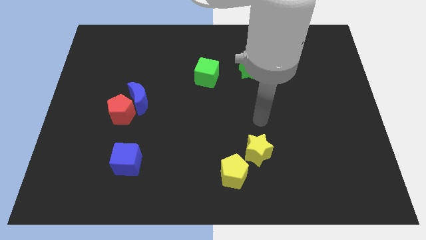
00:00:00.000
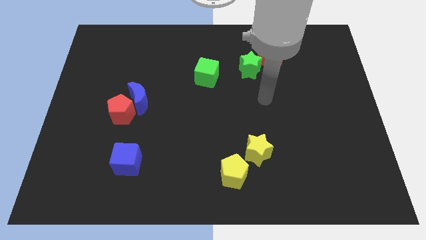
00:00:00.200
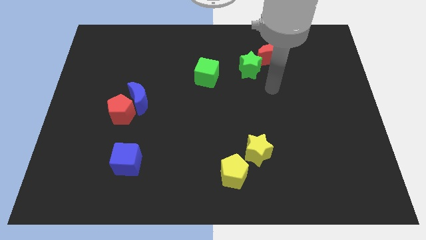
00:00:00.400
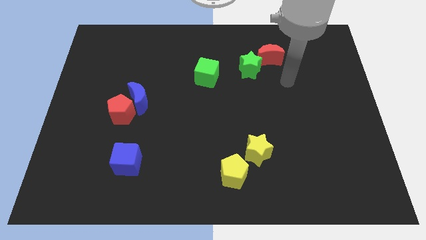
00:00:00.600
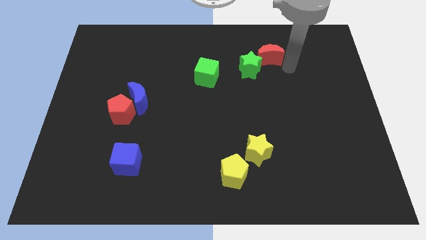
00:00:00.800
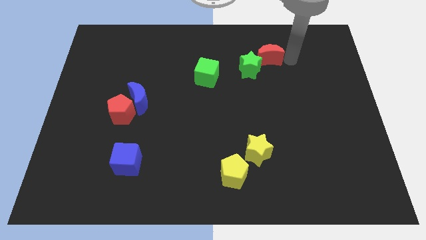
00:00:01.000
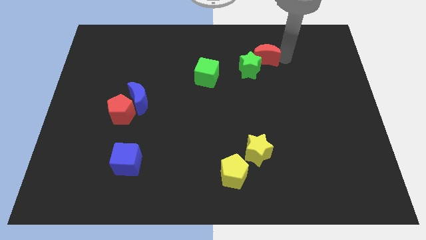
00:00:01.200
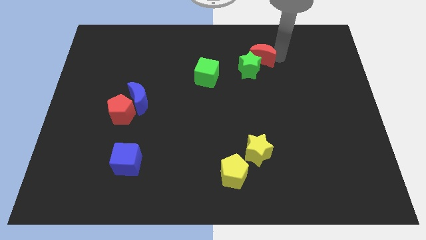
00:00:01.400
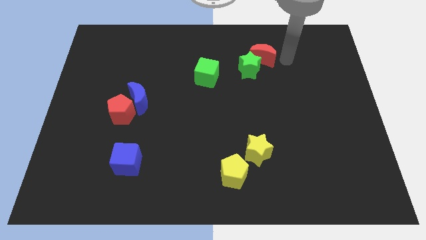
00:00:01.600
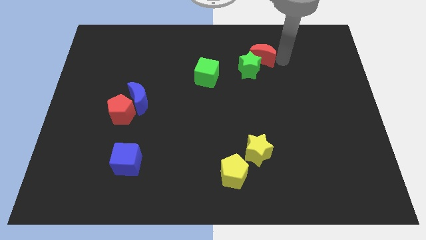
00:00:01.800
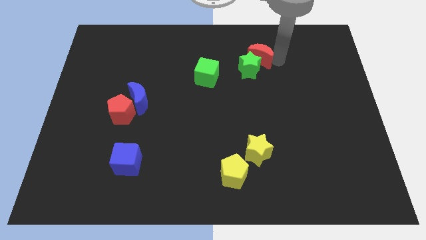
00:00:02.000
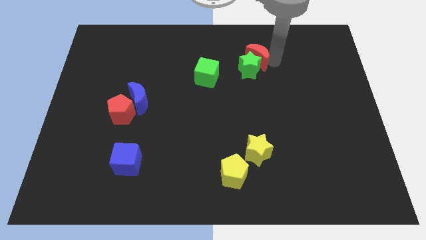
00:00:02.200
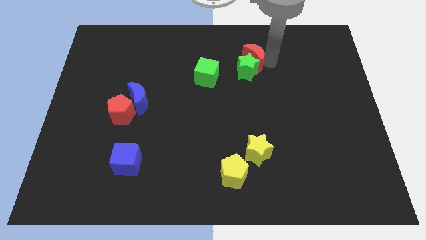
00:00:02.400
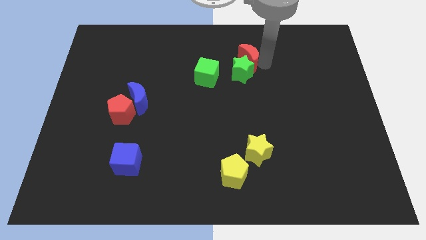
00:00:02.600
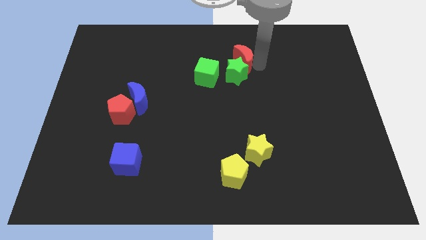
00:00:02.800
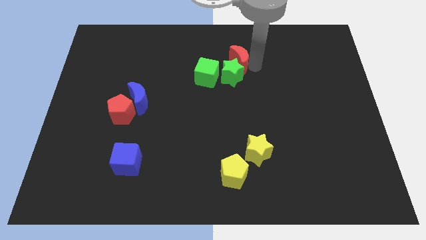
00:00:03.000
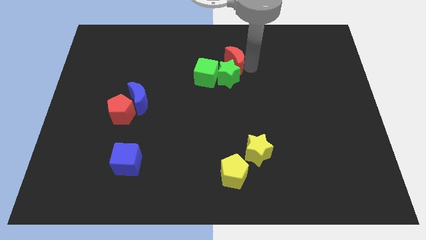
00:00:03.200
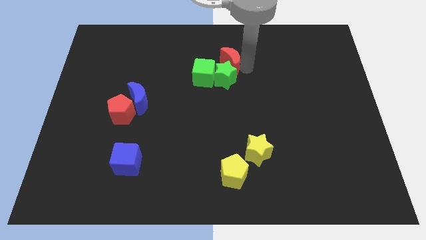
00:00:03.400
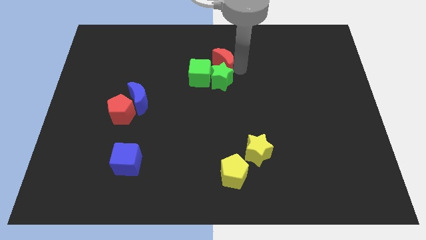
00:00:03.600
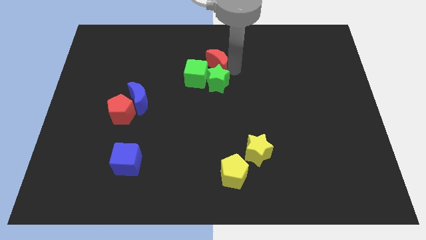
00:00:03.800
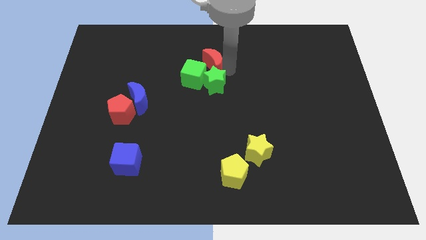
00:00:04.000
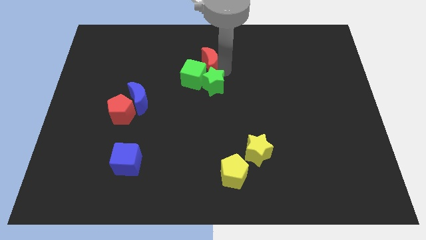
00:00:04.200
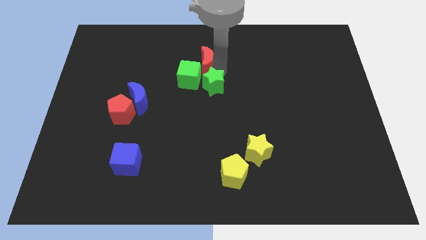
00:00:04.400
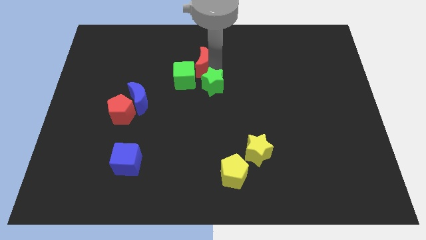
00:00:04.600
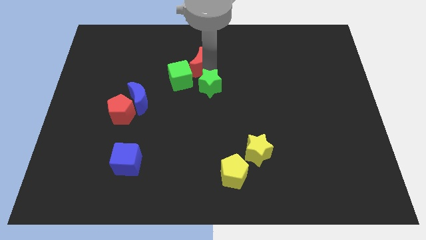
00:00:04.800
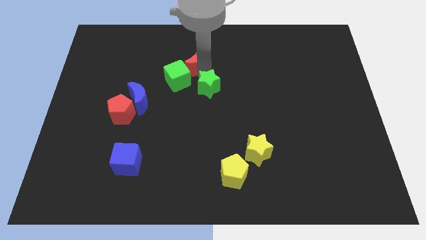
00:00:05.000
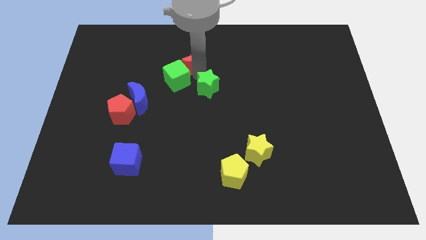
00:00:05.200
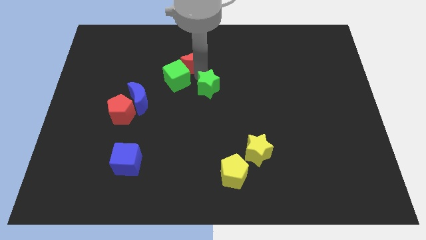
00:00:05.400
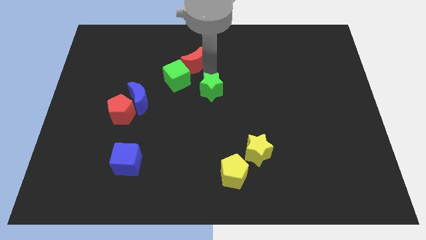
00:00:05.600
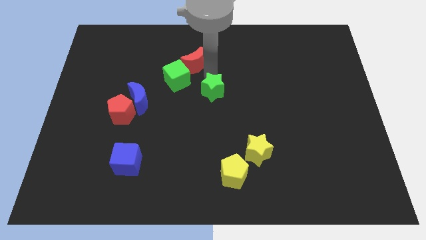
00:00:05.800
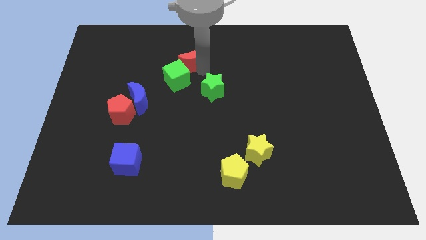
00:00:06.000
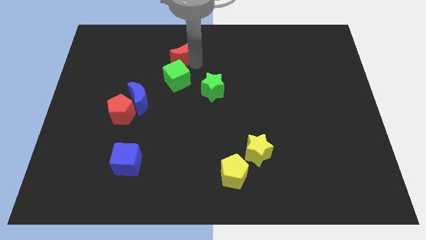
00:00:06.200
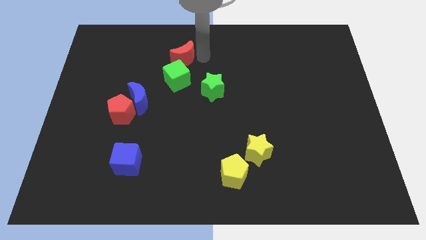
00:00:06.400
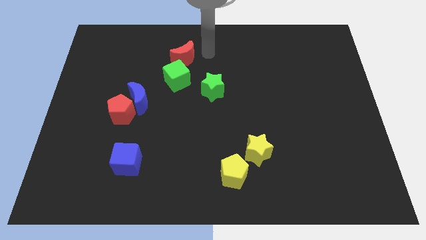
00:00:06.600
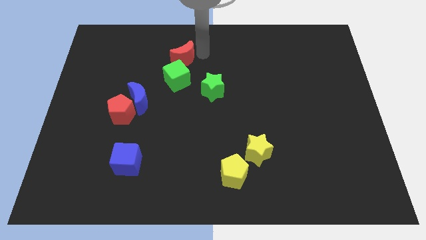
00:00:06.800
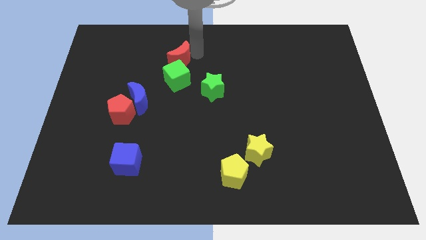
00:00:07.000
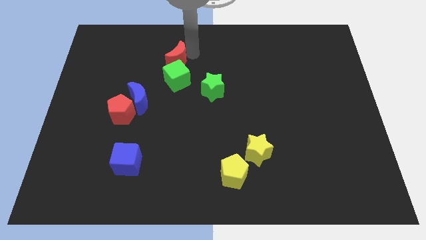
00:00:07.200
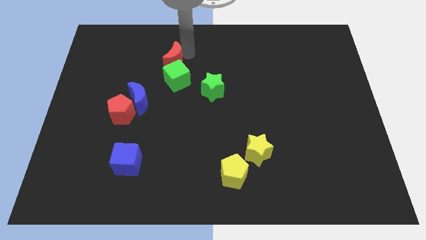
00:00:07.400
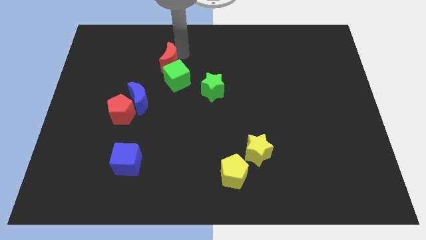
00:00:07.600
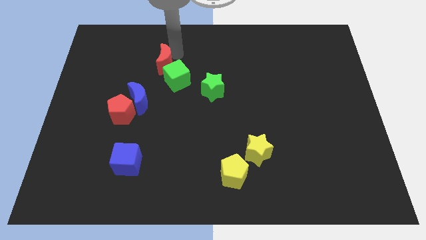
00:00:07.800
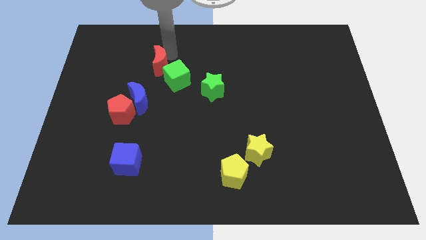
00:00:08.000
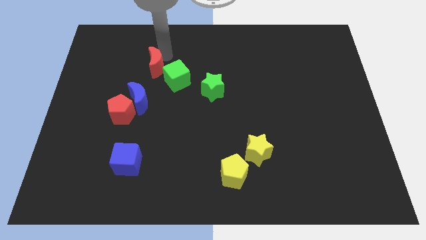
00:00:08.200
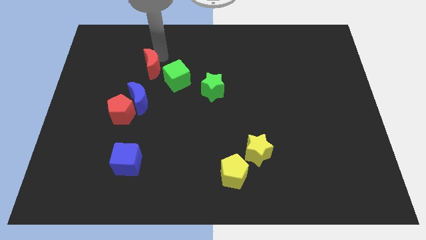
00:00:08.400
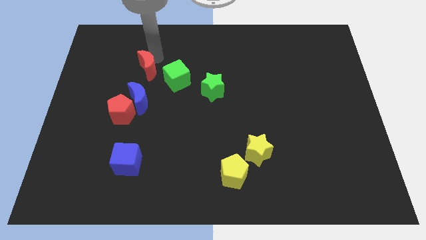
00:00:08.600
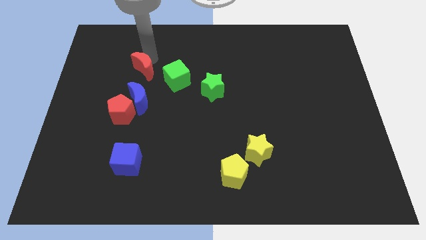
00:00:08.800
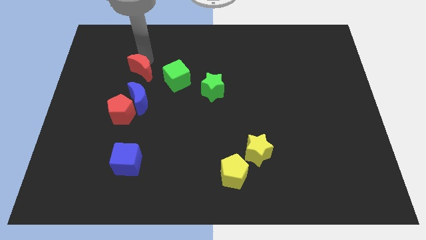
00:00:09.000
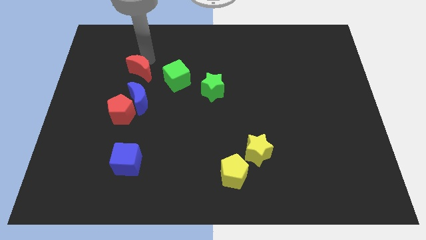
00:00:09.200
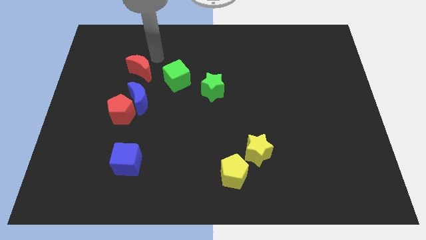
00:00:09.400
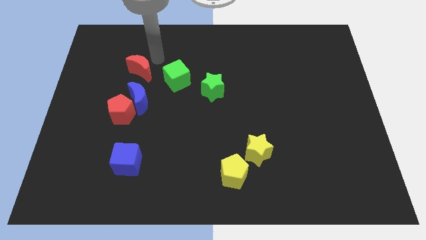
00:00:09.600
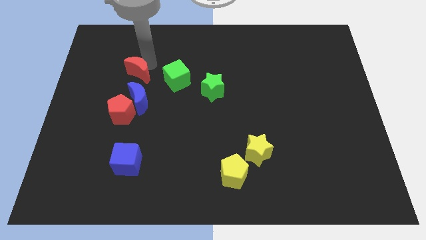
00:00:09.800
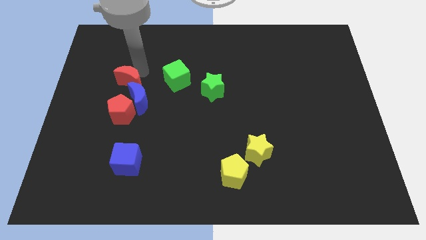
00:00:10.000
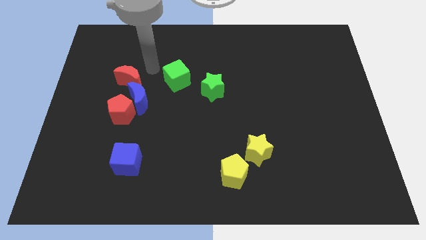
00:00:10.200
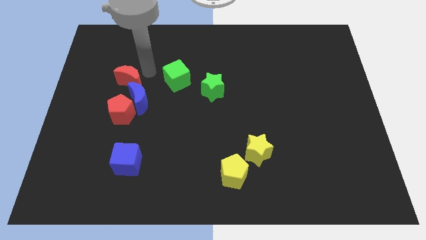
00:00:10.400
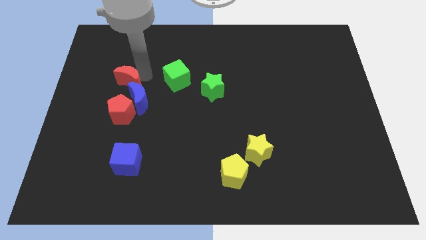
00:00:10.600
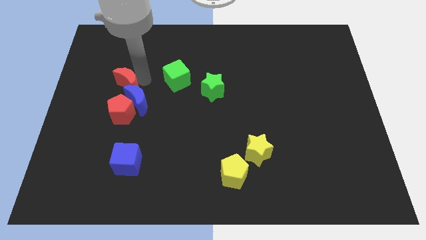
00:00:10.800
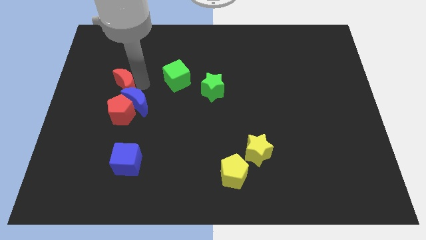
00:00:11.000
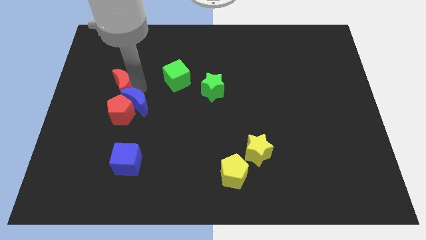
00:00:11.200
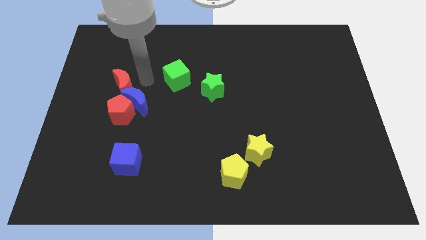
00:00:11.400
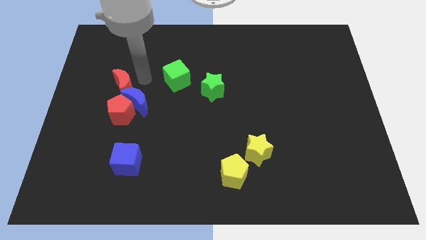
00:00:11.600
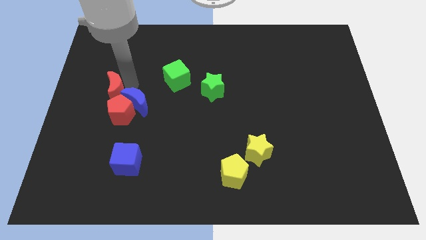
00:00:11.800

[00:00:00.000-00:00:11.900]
slide the red moon to the top left of the red pentagon

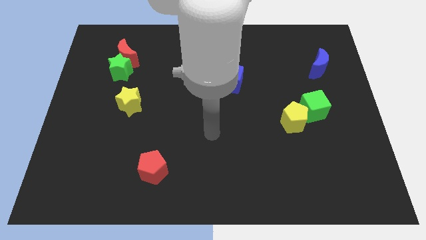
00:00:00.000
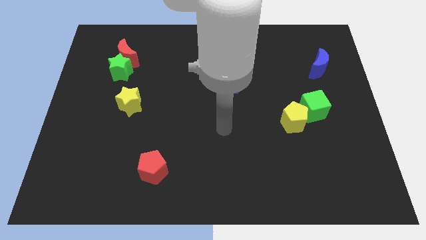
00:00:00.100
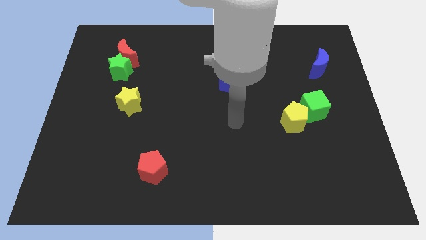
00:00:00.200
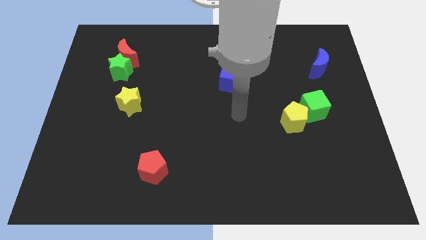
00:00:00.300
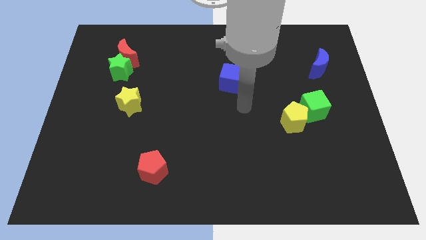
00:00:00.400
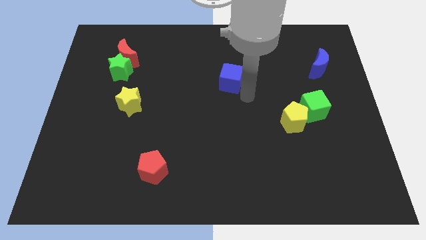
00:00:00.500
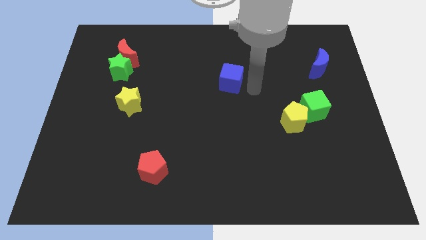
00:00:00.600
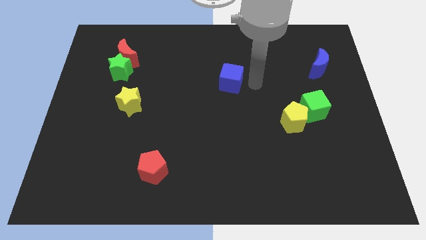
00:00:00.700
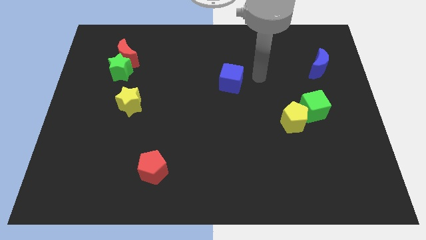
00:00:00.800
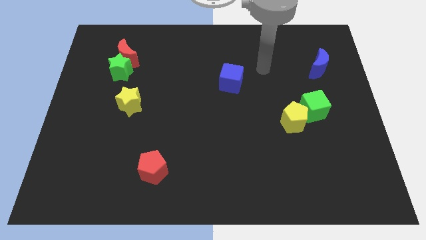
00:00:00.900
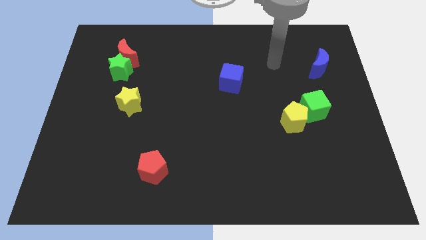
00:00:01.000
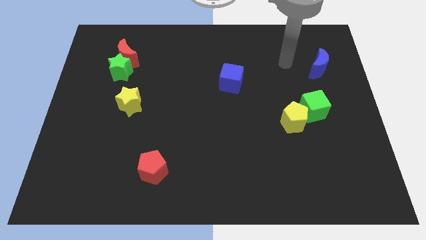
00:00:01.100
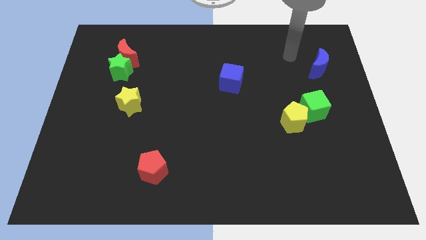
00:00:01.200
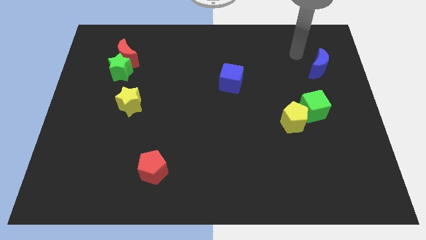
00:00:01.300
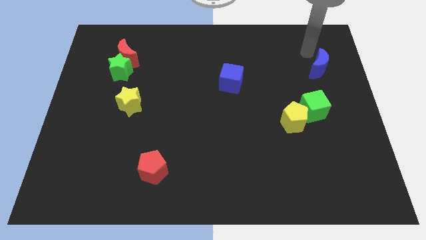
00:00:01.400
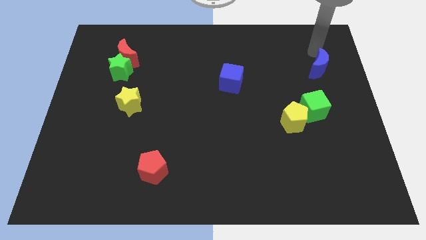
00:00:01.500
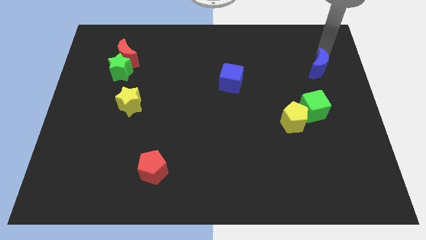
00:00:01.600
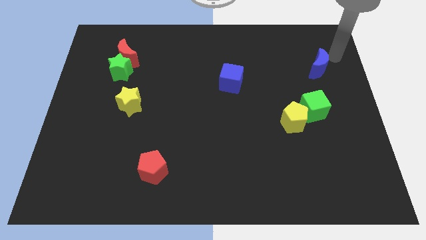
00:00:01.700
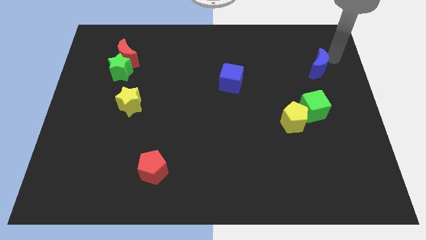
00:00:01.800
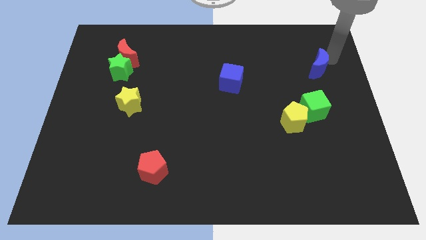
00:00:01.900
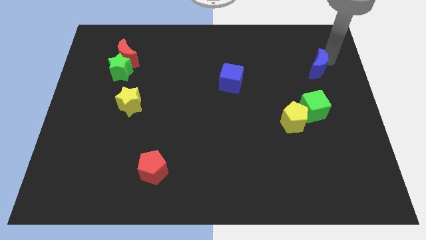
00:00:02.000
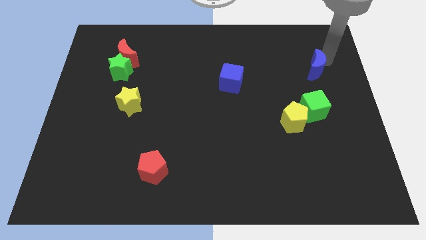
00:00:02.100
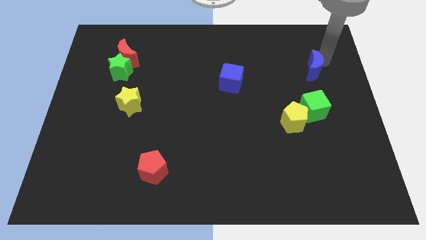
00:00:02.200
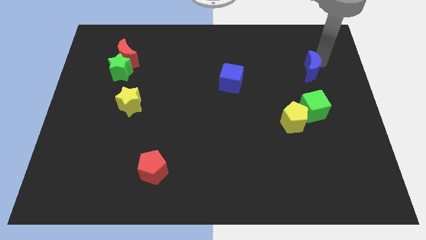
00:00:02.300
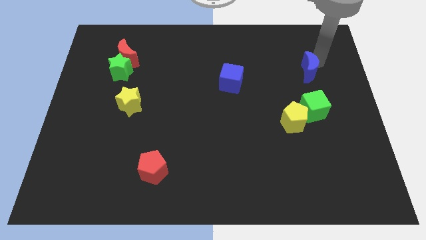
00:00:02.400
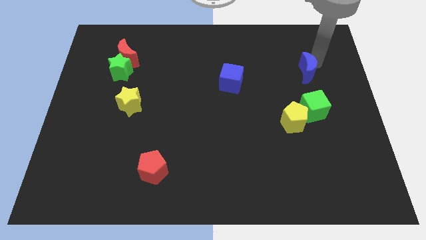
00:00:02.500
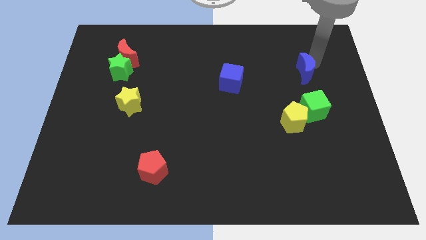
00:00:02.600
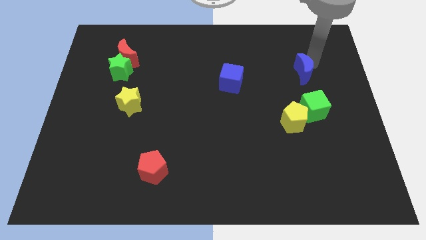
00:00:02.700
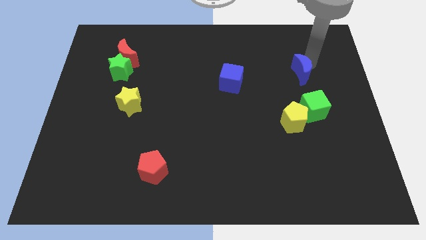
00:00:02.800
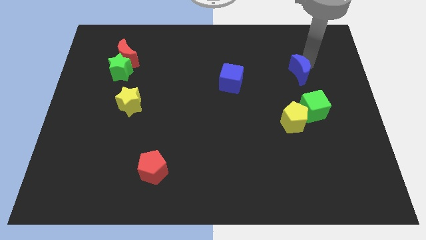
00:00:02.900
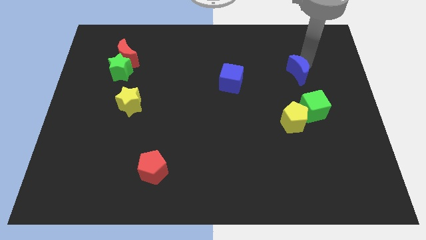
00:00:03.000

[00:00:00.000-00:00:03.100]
move the blue moon to the top side of the yellow pentagon
